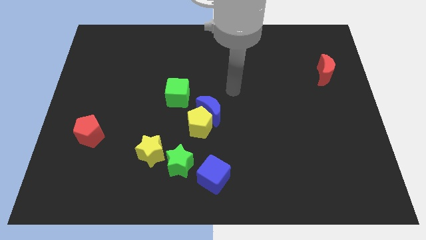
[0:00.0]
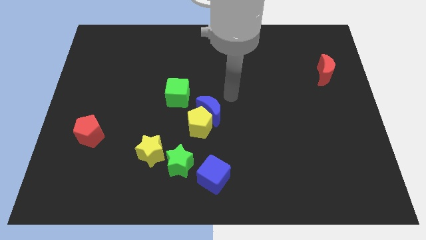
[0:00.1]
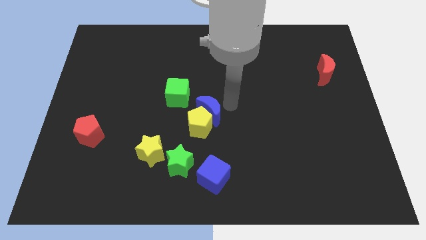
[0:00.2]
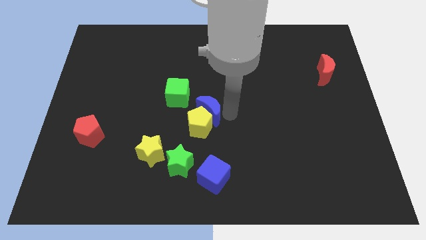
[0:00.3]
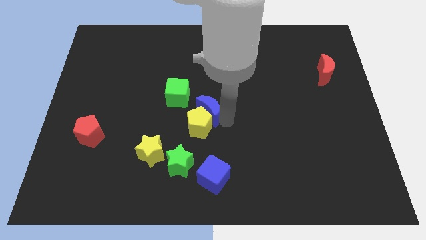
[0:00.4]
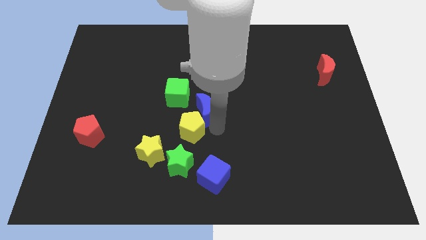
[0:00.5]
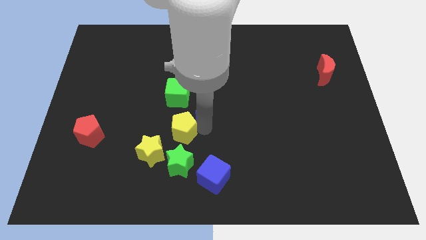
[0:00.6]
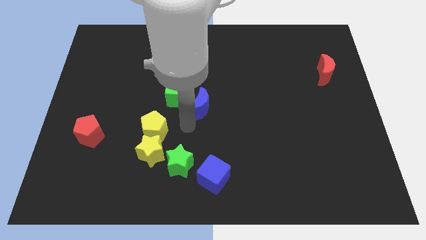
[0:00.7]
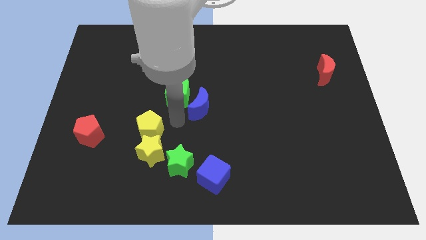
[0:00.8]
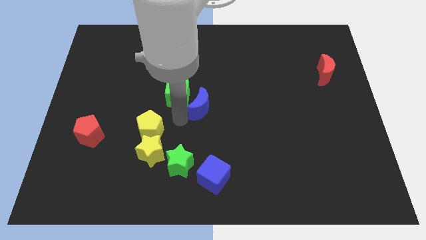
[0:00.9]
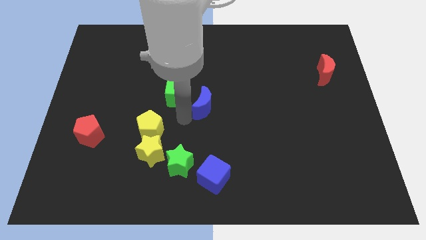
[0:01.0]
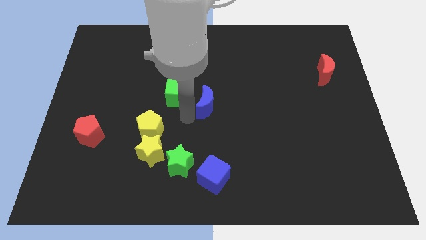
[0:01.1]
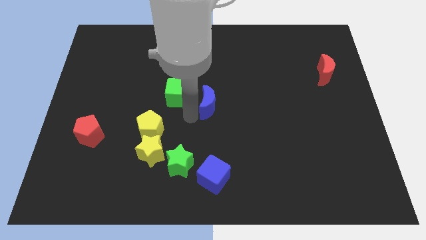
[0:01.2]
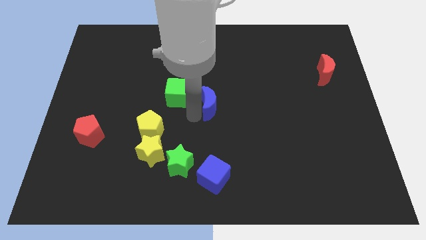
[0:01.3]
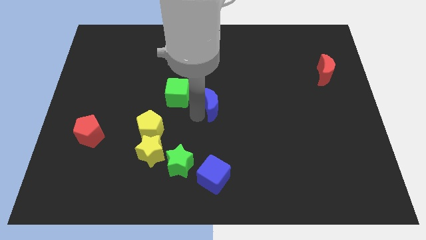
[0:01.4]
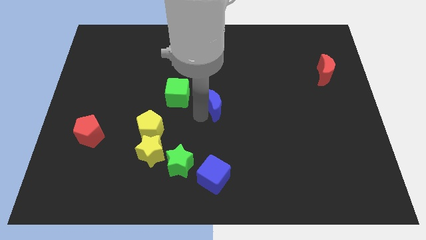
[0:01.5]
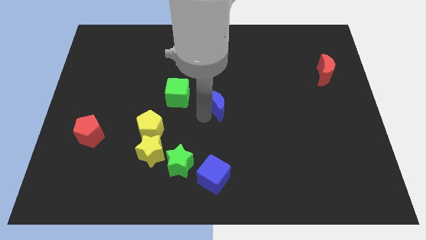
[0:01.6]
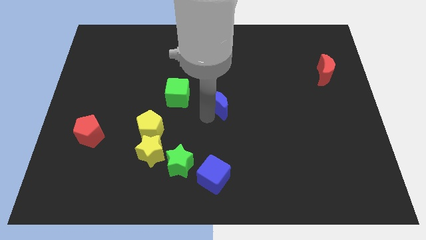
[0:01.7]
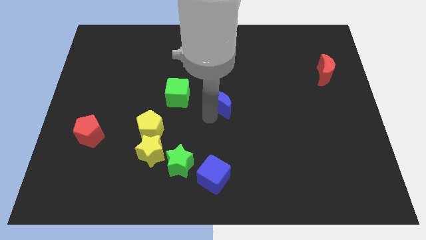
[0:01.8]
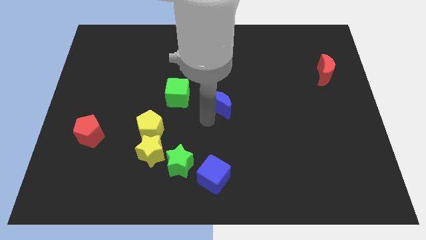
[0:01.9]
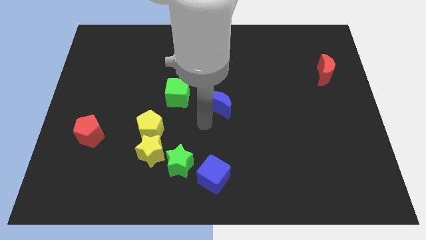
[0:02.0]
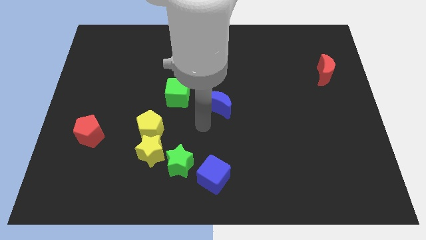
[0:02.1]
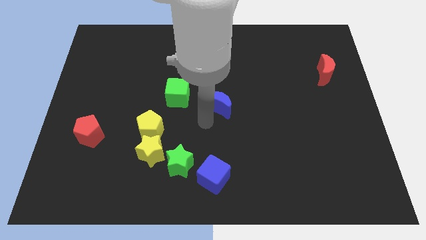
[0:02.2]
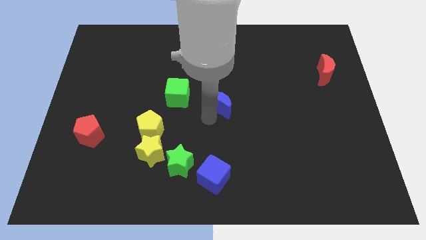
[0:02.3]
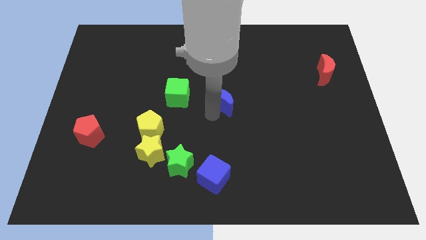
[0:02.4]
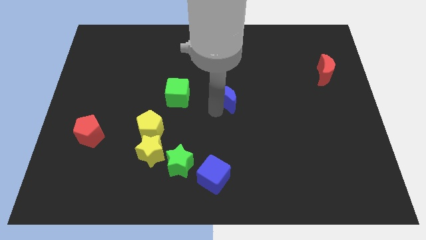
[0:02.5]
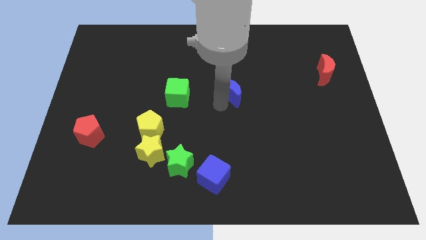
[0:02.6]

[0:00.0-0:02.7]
push the blue moon a little bit up and to the right

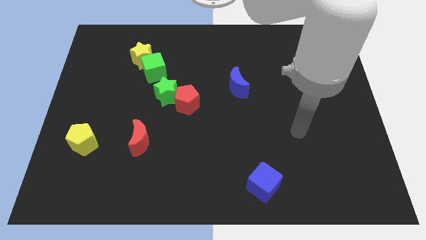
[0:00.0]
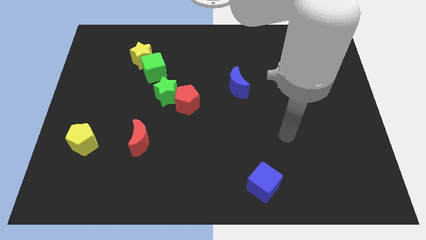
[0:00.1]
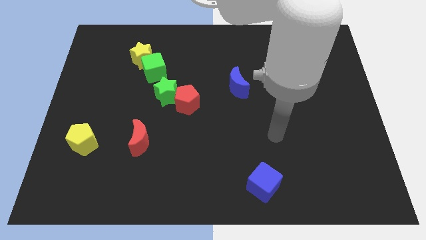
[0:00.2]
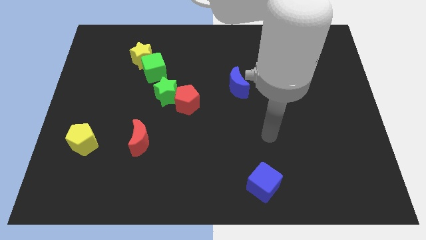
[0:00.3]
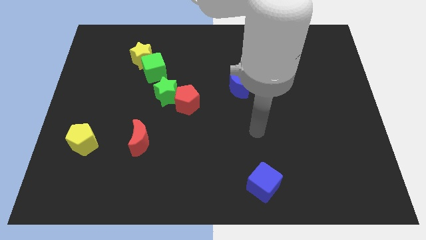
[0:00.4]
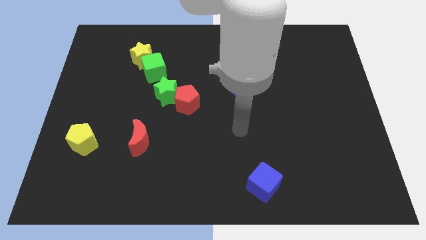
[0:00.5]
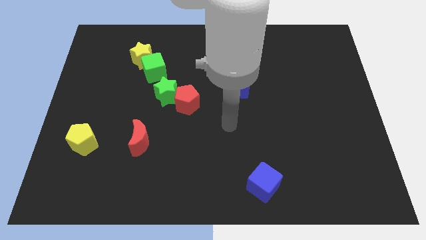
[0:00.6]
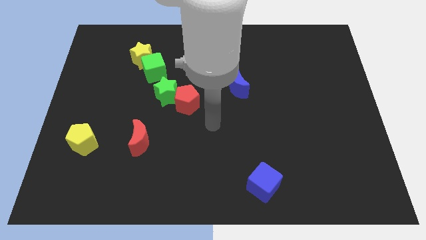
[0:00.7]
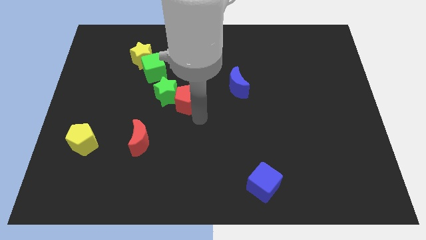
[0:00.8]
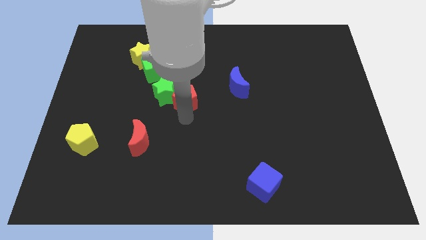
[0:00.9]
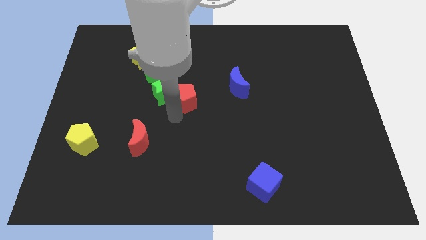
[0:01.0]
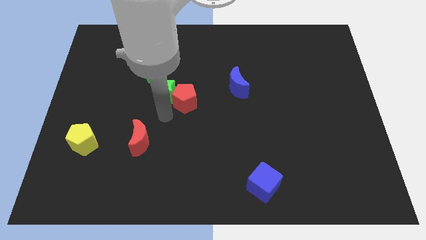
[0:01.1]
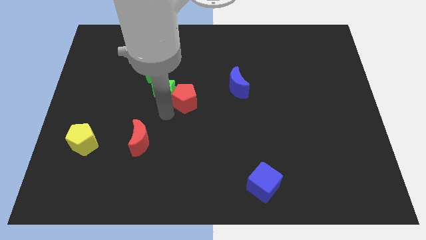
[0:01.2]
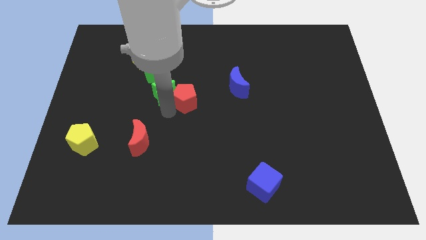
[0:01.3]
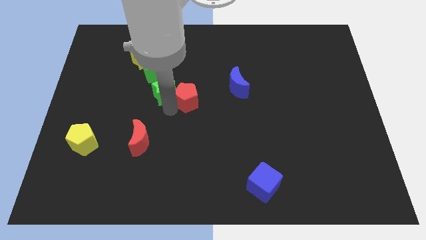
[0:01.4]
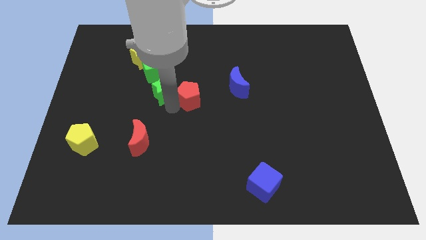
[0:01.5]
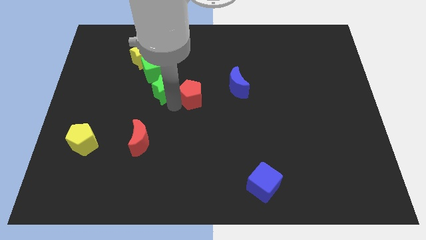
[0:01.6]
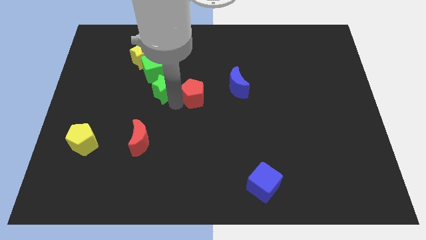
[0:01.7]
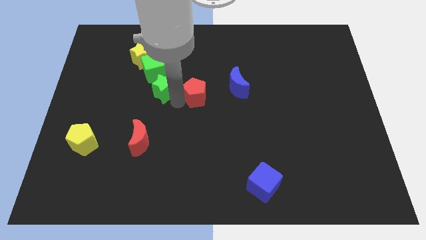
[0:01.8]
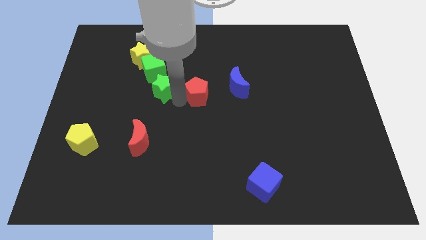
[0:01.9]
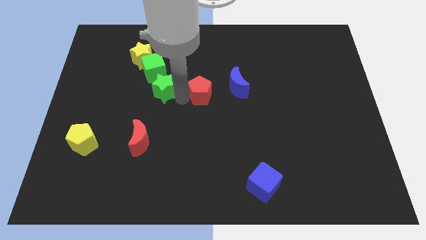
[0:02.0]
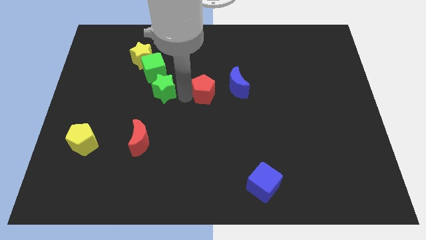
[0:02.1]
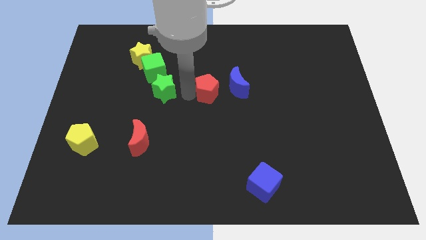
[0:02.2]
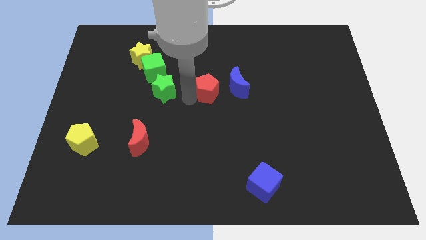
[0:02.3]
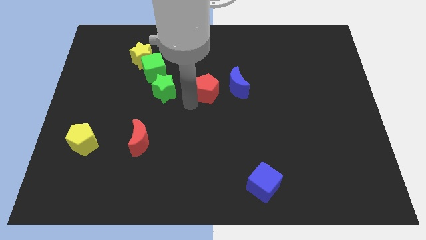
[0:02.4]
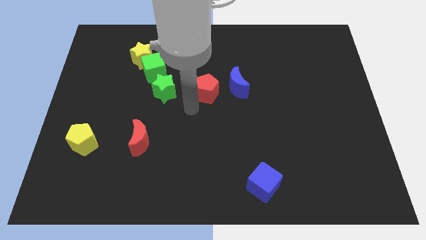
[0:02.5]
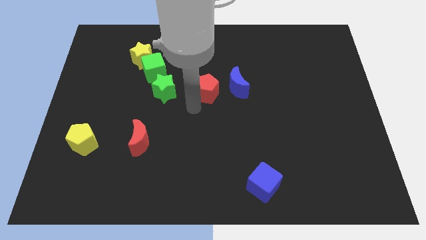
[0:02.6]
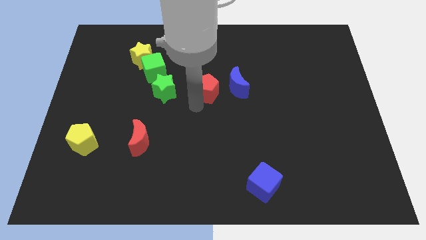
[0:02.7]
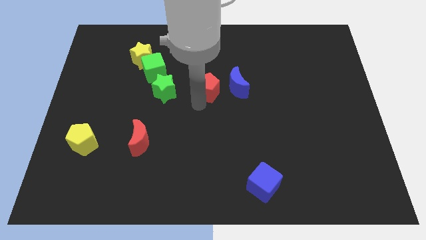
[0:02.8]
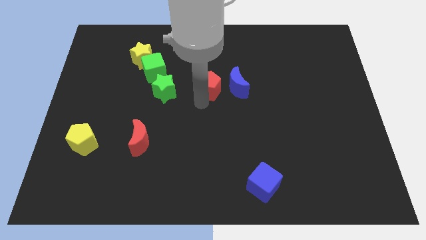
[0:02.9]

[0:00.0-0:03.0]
slide the red pentagon a little upwards and right

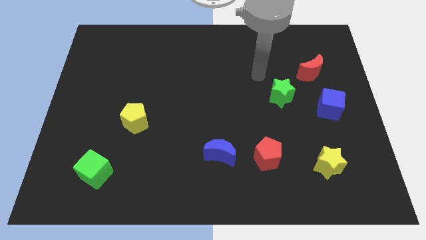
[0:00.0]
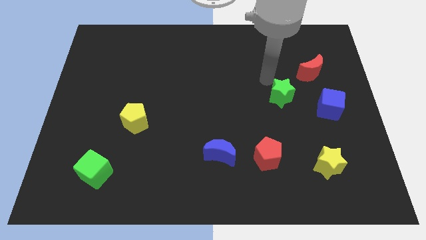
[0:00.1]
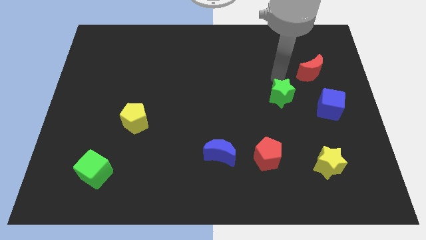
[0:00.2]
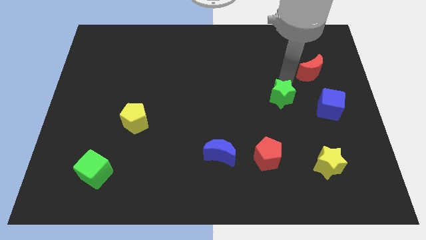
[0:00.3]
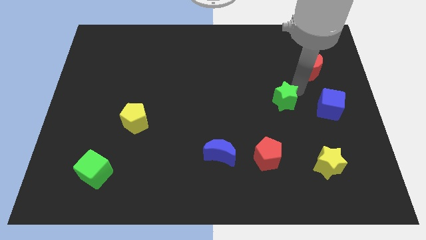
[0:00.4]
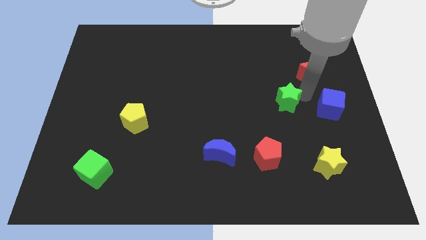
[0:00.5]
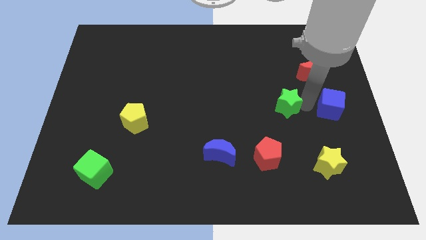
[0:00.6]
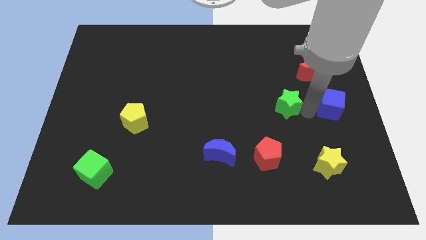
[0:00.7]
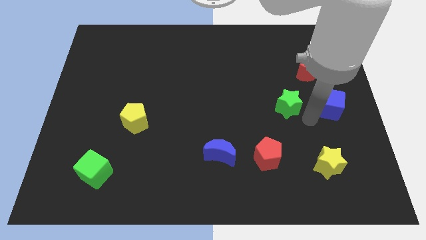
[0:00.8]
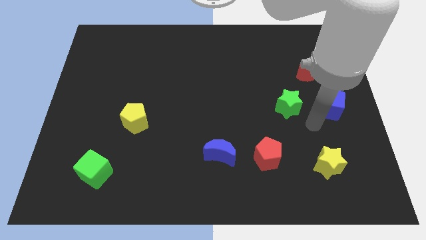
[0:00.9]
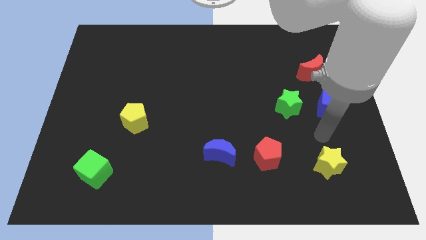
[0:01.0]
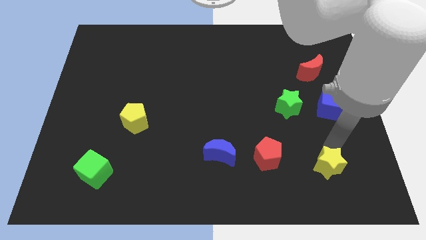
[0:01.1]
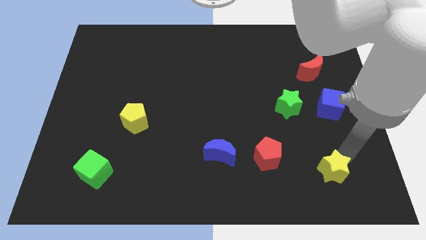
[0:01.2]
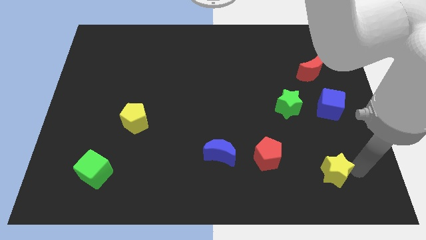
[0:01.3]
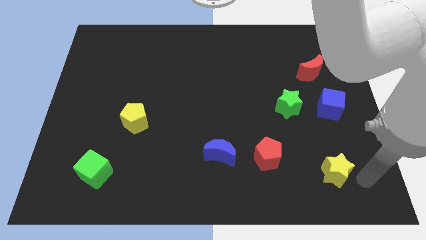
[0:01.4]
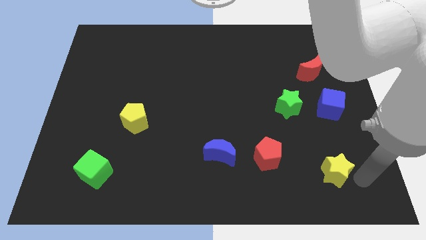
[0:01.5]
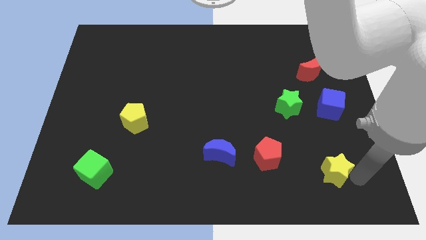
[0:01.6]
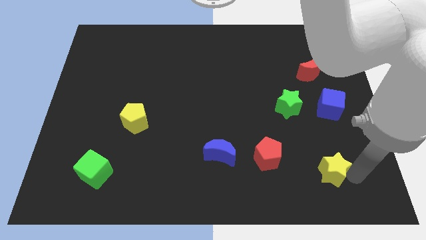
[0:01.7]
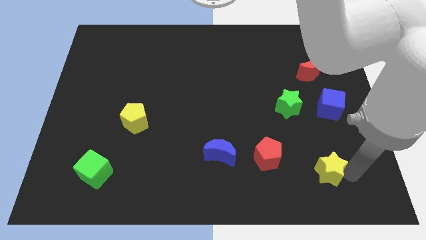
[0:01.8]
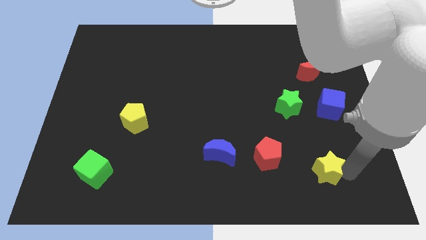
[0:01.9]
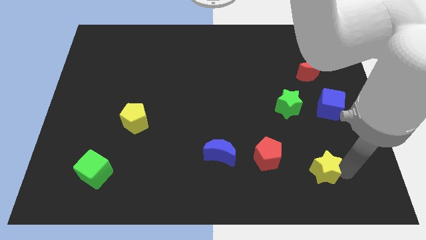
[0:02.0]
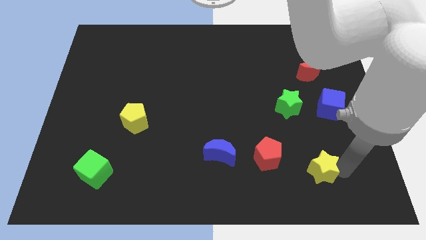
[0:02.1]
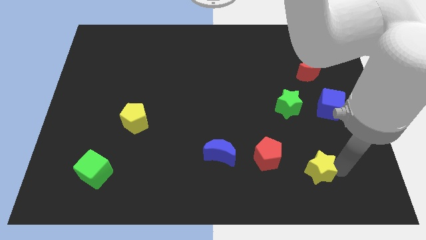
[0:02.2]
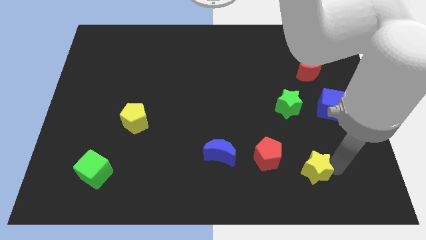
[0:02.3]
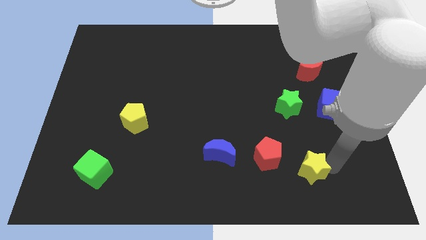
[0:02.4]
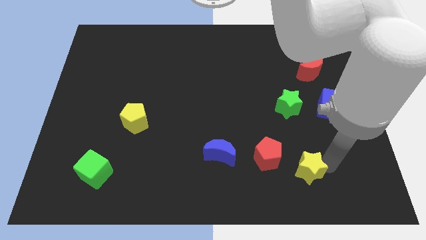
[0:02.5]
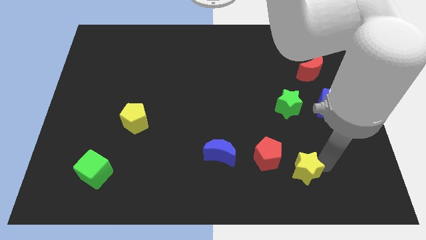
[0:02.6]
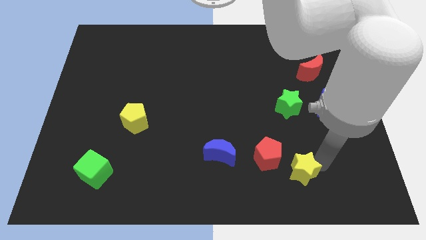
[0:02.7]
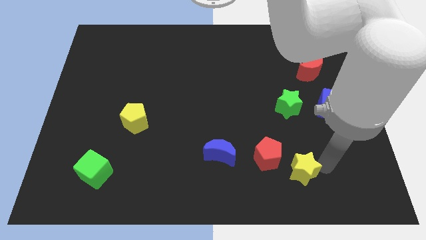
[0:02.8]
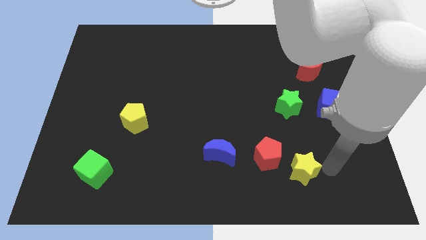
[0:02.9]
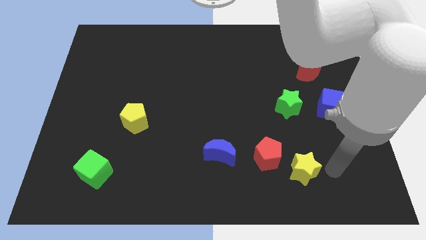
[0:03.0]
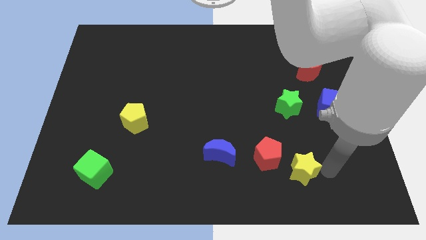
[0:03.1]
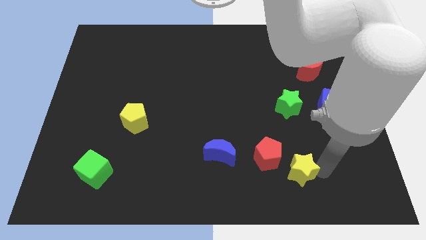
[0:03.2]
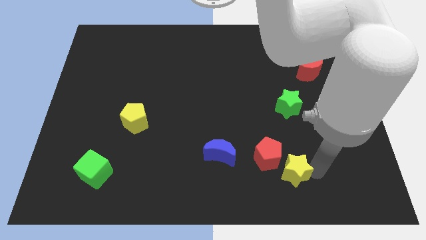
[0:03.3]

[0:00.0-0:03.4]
push the yellow star a little to the left
